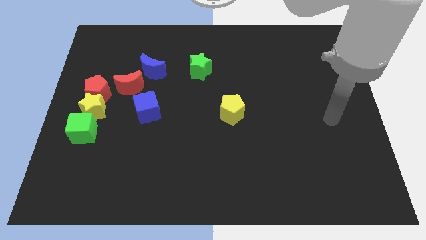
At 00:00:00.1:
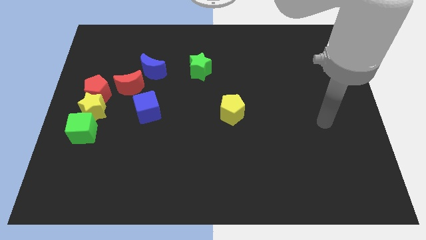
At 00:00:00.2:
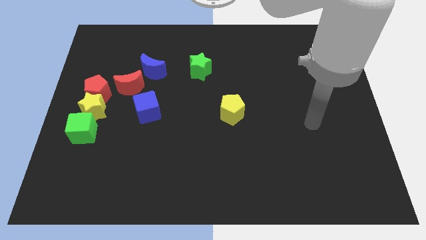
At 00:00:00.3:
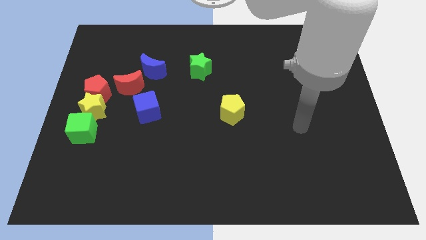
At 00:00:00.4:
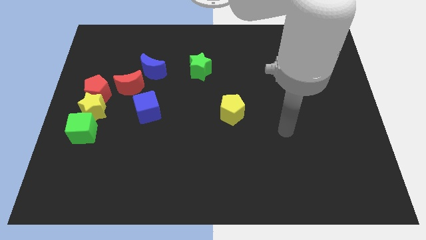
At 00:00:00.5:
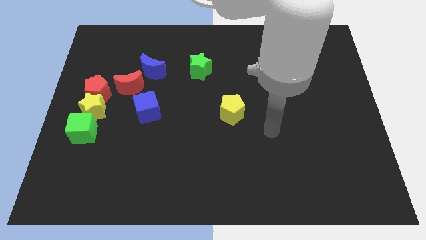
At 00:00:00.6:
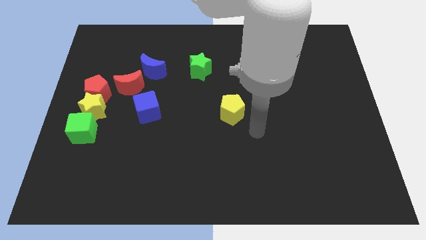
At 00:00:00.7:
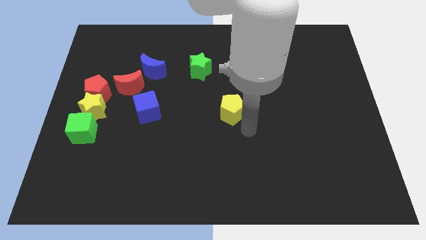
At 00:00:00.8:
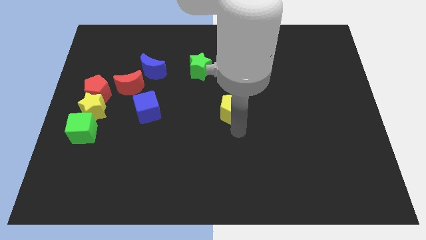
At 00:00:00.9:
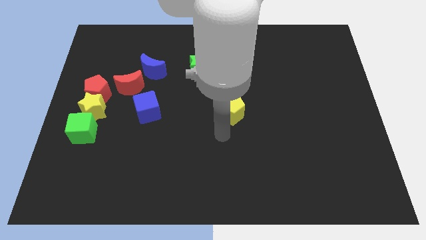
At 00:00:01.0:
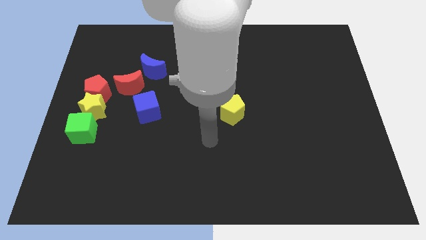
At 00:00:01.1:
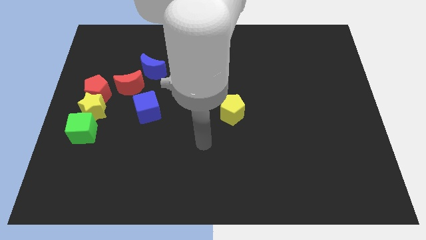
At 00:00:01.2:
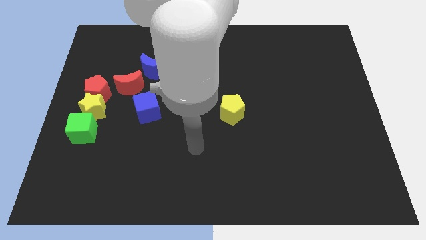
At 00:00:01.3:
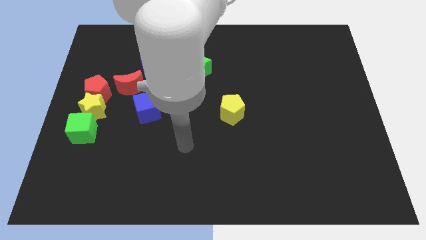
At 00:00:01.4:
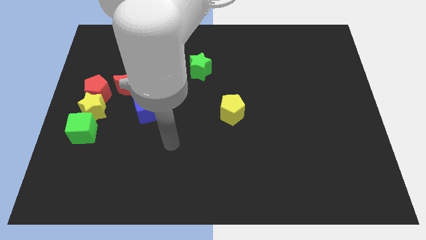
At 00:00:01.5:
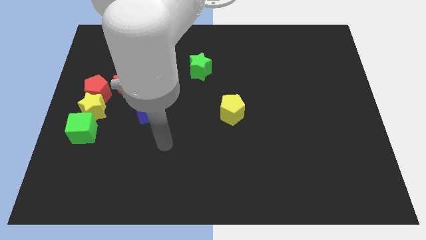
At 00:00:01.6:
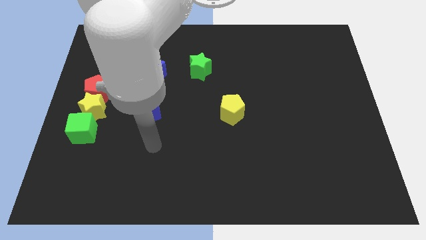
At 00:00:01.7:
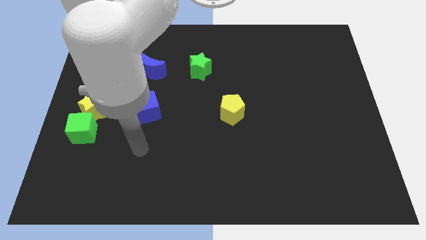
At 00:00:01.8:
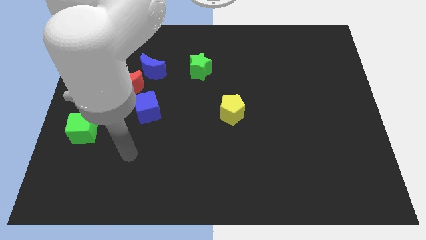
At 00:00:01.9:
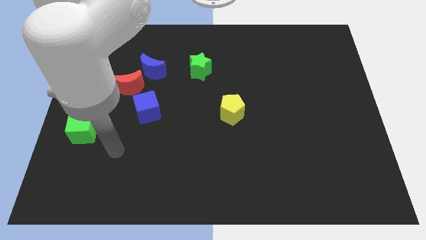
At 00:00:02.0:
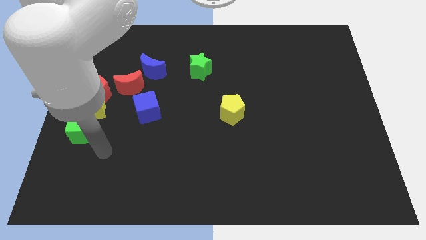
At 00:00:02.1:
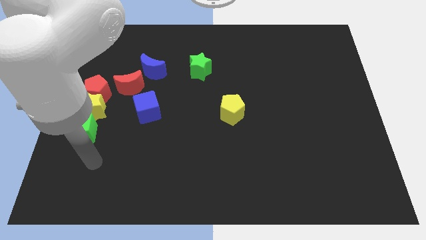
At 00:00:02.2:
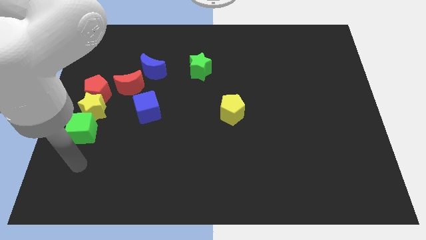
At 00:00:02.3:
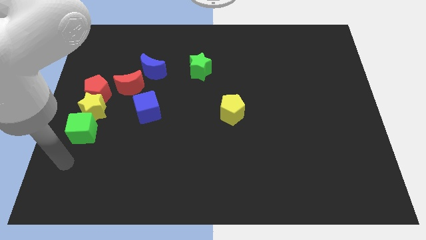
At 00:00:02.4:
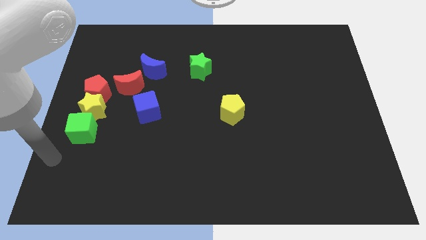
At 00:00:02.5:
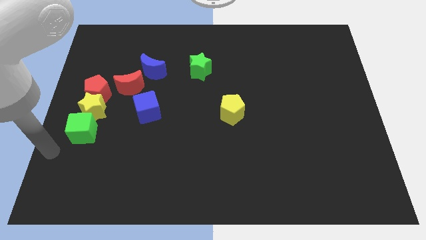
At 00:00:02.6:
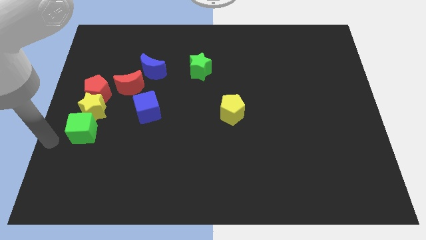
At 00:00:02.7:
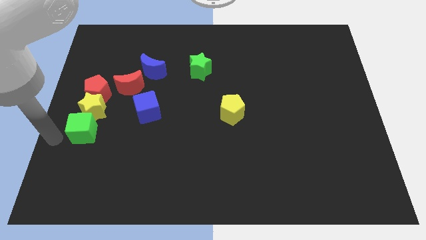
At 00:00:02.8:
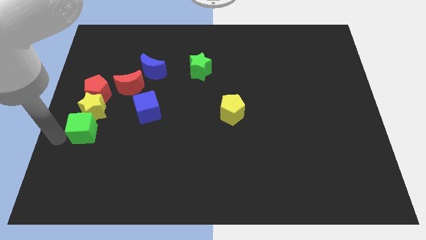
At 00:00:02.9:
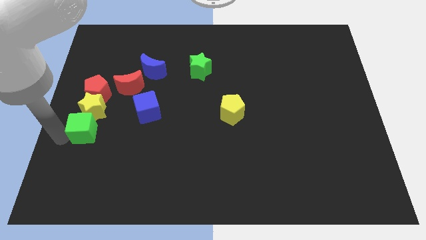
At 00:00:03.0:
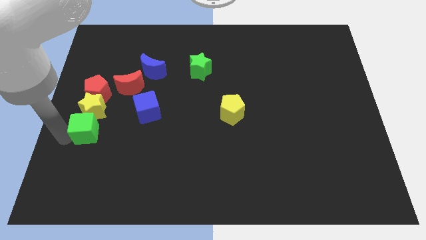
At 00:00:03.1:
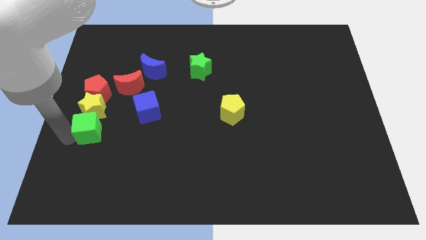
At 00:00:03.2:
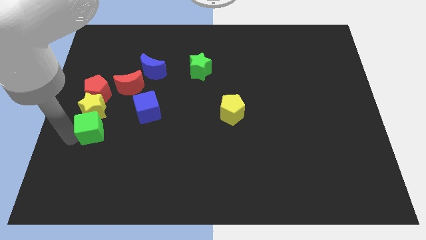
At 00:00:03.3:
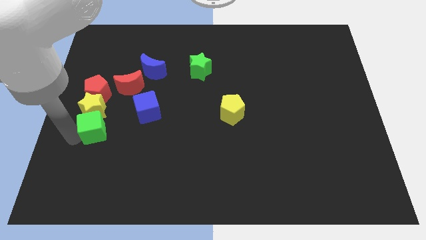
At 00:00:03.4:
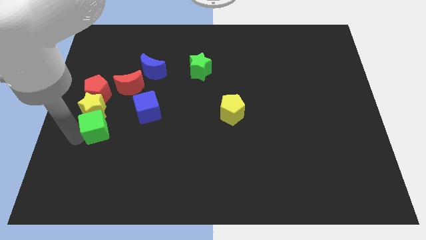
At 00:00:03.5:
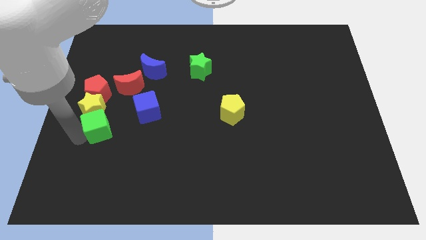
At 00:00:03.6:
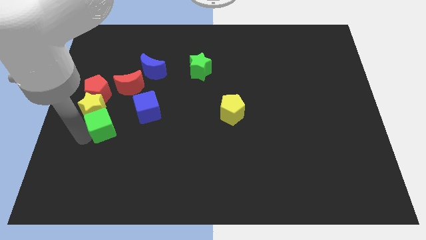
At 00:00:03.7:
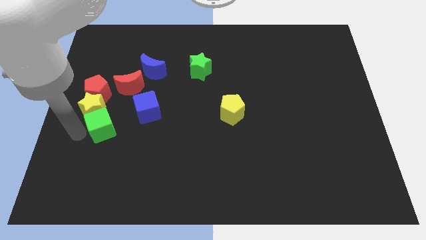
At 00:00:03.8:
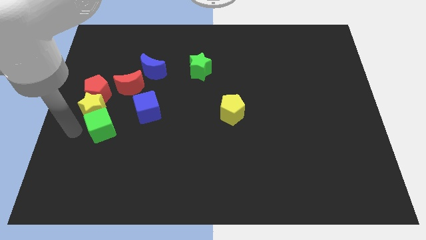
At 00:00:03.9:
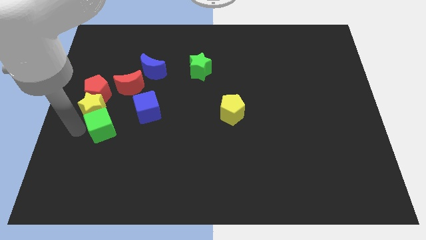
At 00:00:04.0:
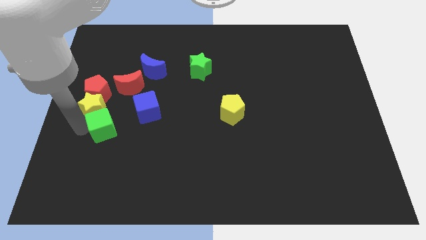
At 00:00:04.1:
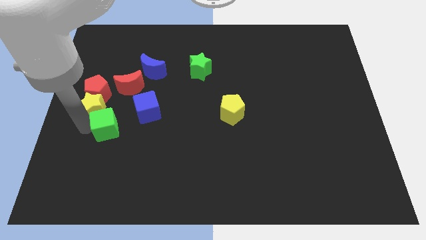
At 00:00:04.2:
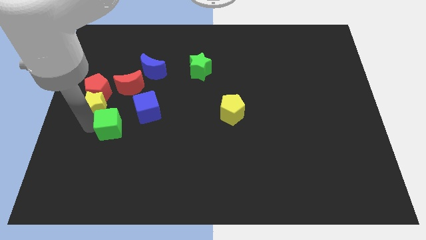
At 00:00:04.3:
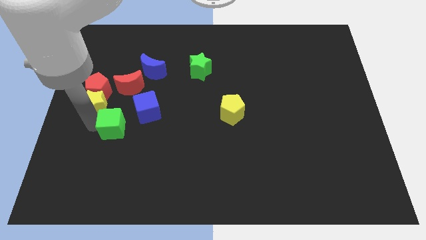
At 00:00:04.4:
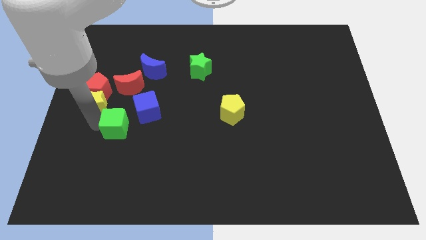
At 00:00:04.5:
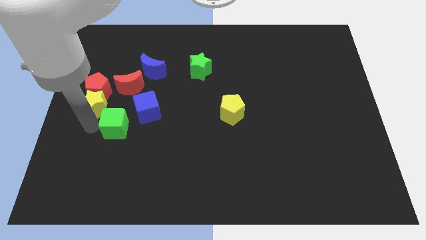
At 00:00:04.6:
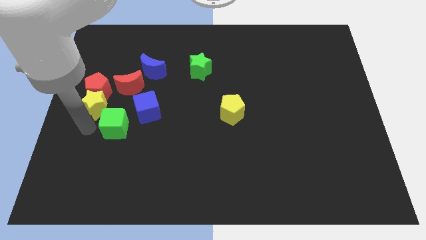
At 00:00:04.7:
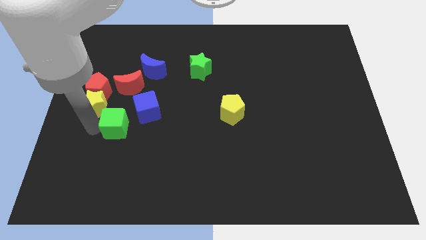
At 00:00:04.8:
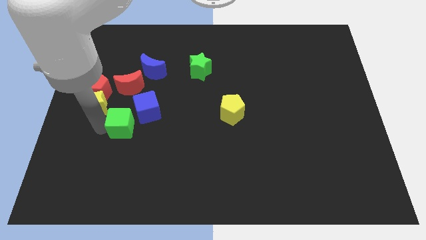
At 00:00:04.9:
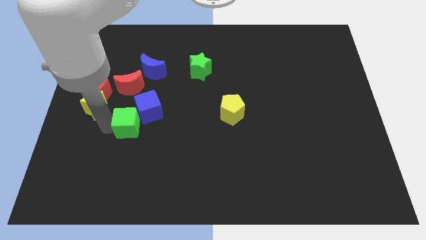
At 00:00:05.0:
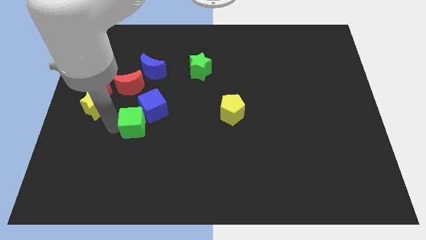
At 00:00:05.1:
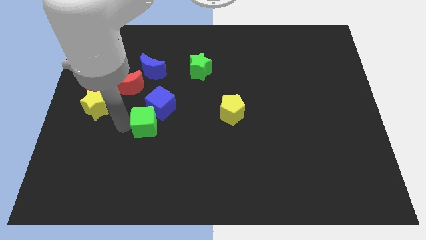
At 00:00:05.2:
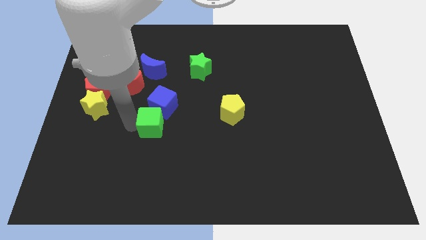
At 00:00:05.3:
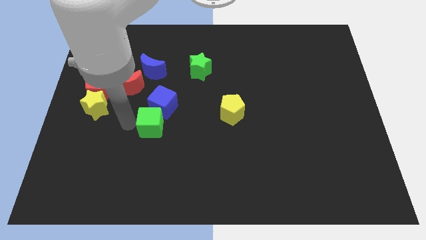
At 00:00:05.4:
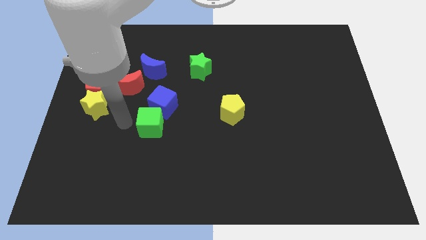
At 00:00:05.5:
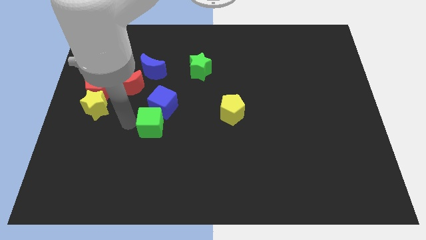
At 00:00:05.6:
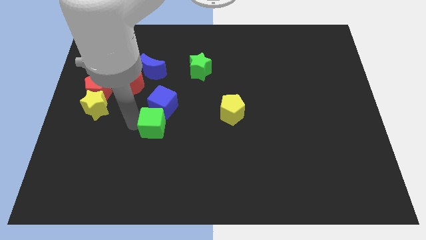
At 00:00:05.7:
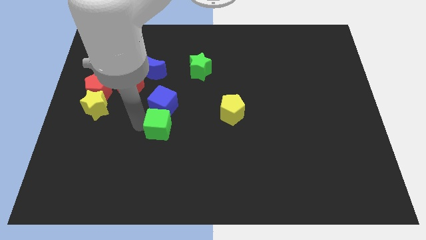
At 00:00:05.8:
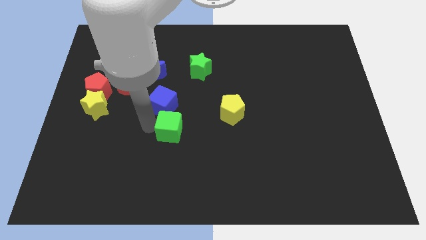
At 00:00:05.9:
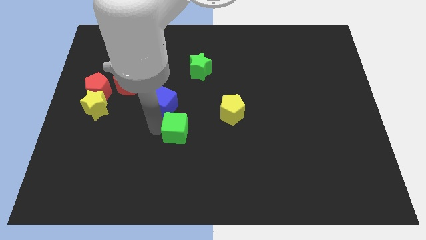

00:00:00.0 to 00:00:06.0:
move the green cube right

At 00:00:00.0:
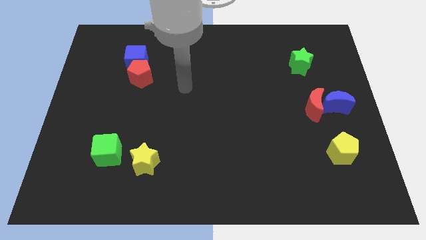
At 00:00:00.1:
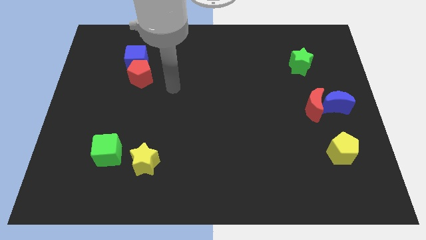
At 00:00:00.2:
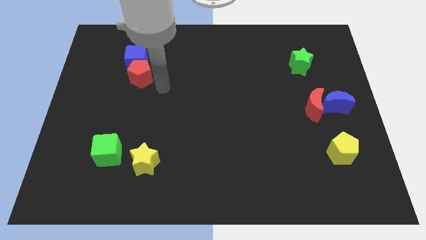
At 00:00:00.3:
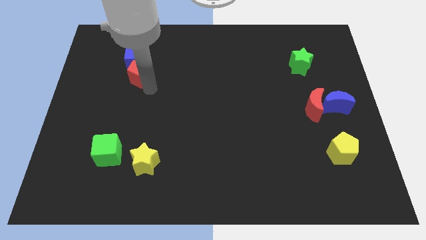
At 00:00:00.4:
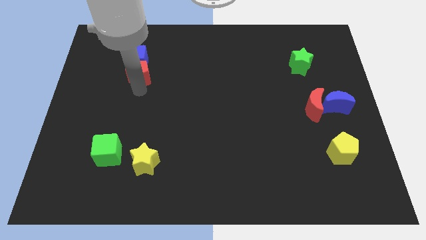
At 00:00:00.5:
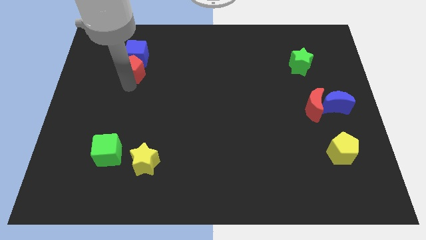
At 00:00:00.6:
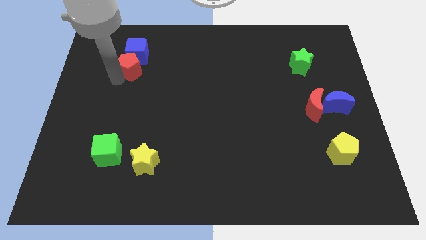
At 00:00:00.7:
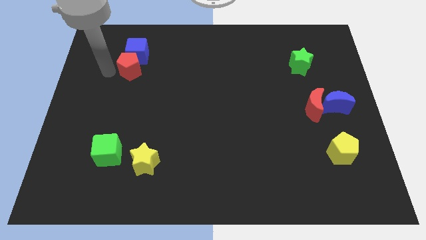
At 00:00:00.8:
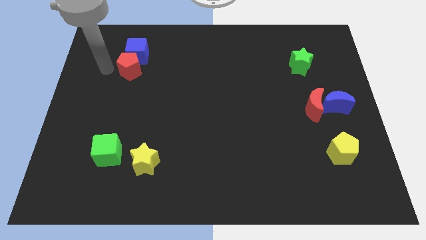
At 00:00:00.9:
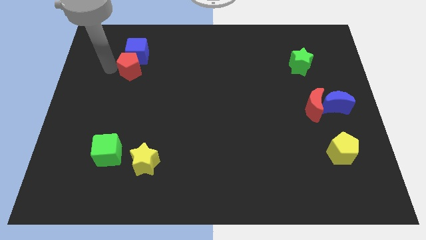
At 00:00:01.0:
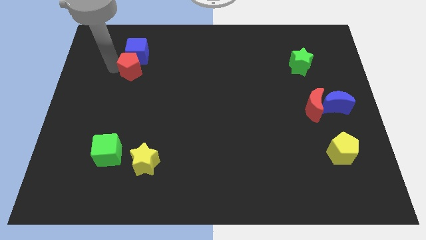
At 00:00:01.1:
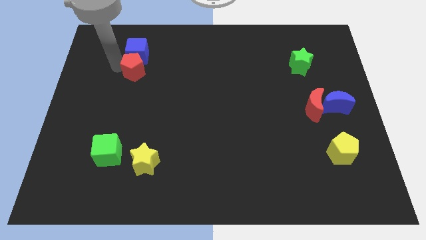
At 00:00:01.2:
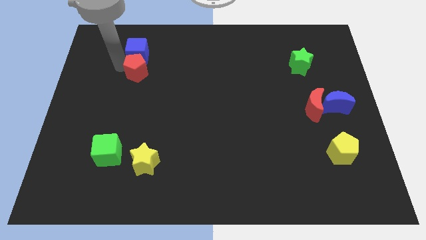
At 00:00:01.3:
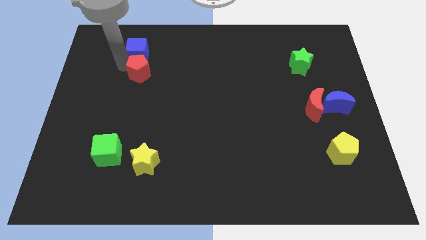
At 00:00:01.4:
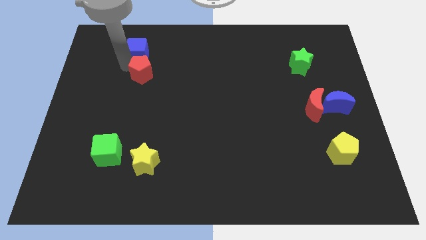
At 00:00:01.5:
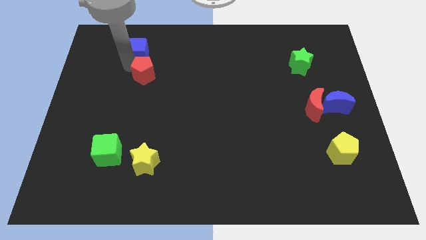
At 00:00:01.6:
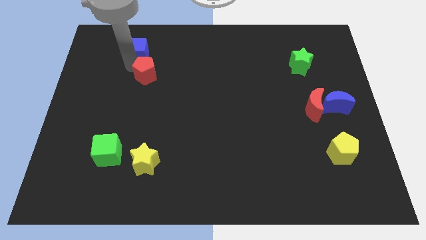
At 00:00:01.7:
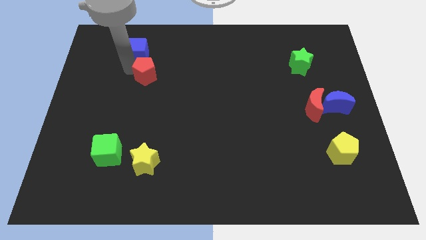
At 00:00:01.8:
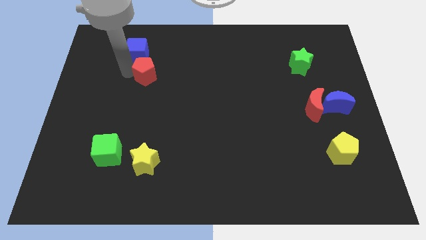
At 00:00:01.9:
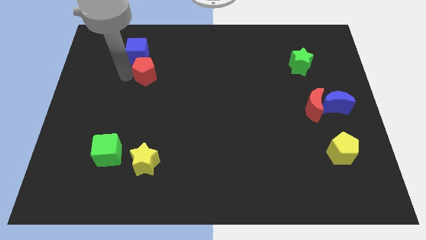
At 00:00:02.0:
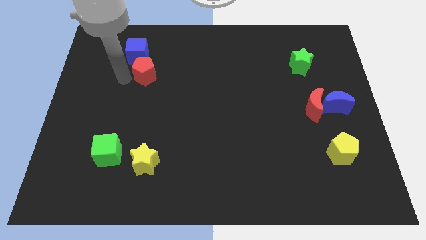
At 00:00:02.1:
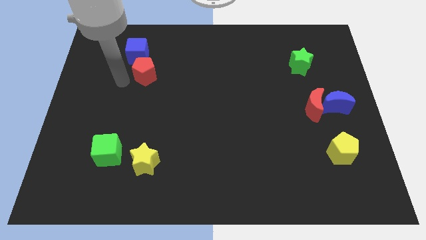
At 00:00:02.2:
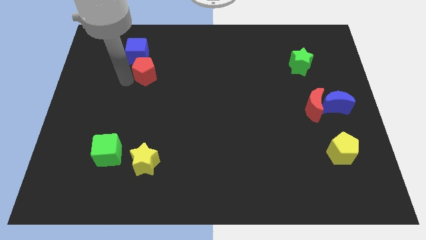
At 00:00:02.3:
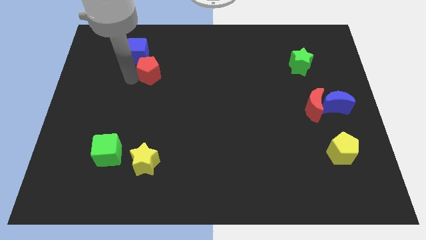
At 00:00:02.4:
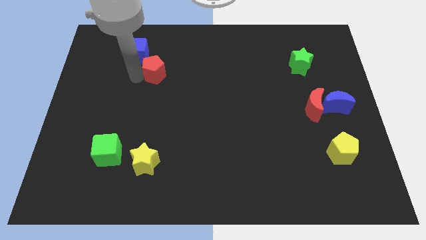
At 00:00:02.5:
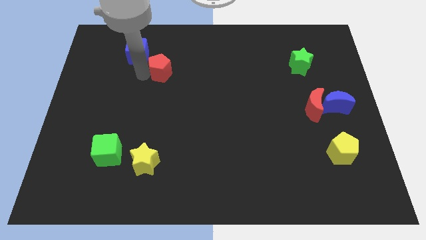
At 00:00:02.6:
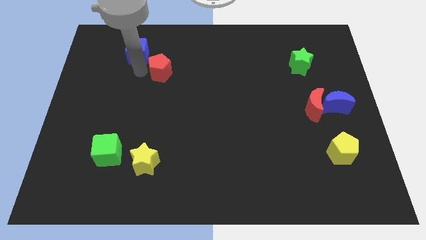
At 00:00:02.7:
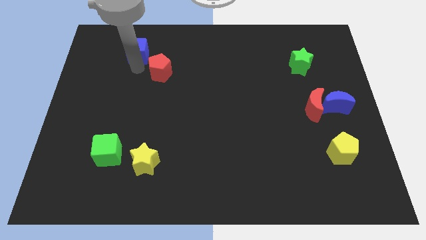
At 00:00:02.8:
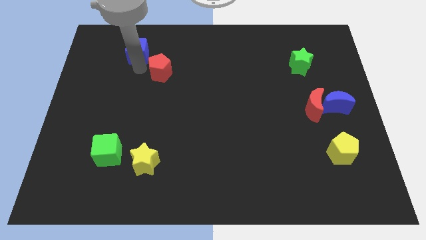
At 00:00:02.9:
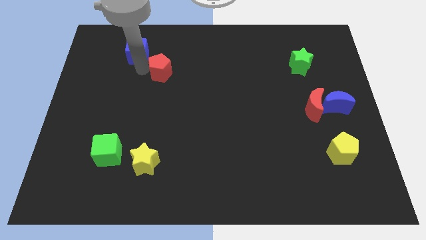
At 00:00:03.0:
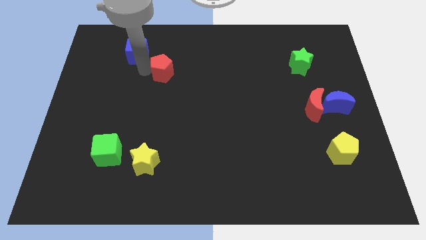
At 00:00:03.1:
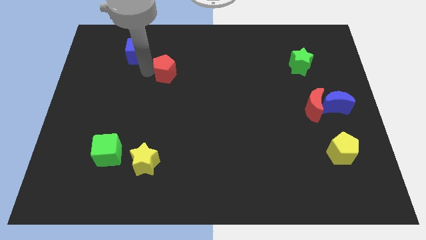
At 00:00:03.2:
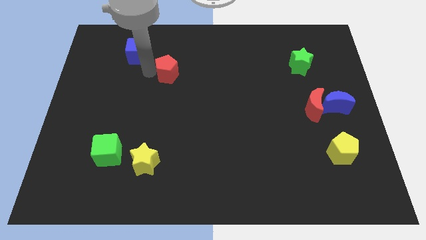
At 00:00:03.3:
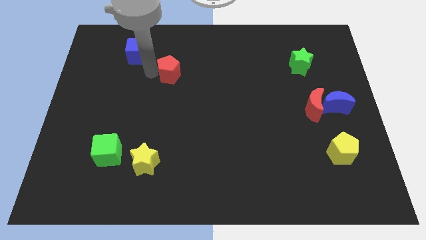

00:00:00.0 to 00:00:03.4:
slightly move the red pentagon to the right
